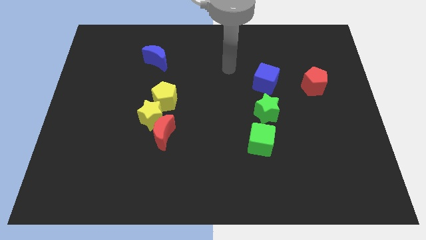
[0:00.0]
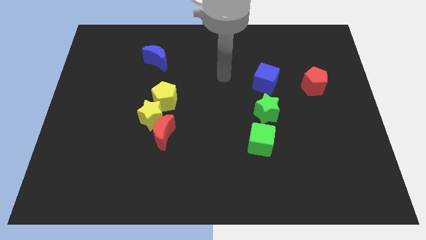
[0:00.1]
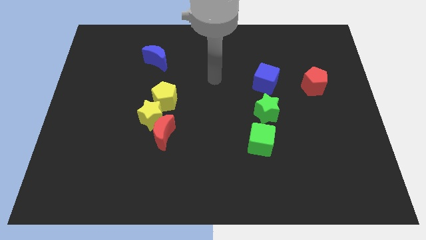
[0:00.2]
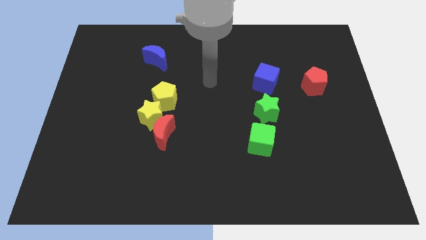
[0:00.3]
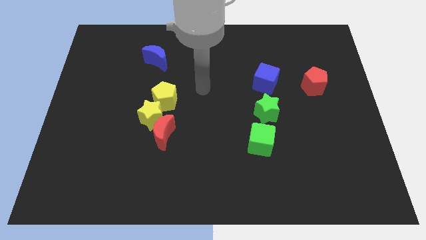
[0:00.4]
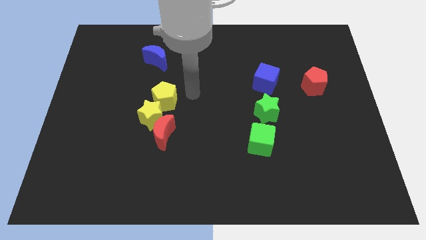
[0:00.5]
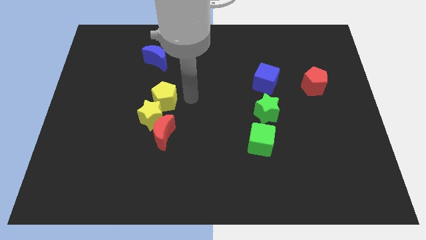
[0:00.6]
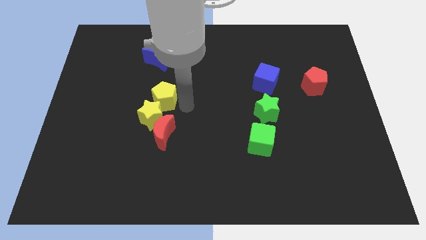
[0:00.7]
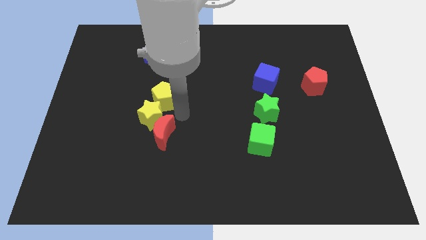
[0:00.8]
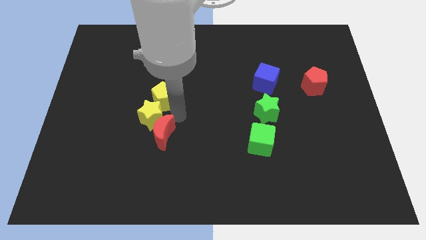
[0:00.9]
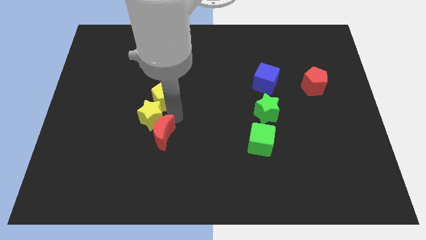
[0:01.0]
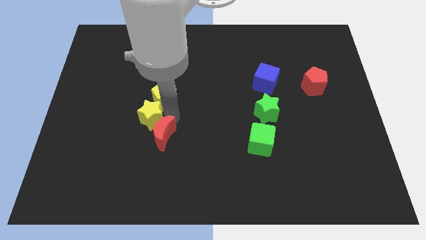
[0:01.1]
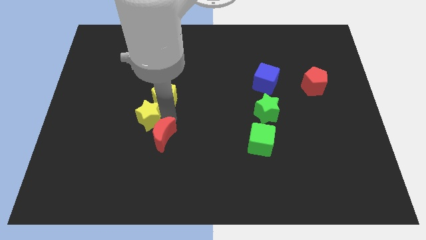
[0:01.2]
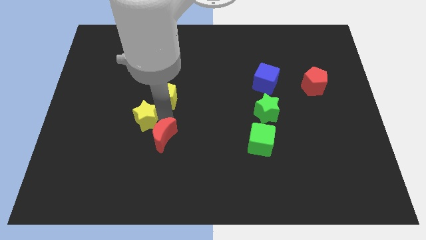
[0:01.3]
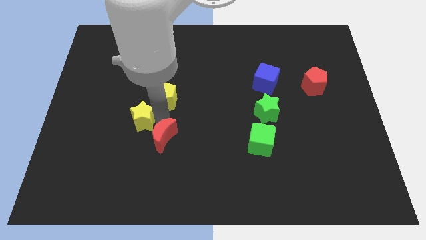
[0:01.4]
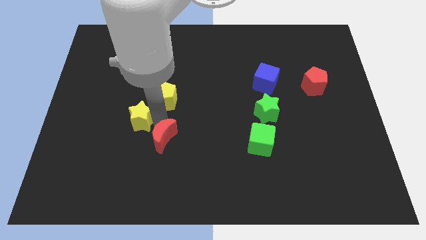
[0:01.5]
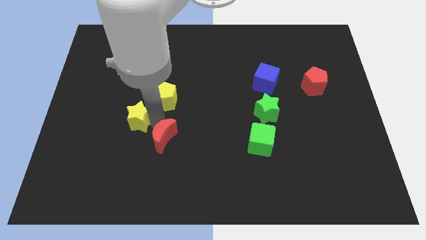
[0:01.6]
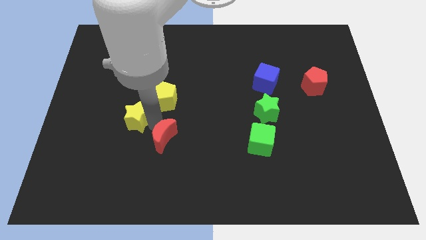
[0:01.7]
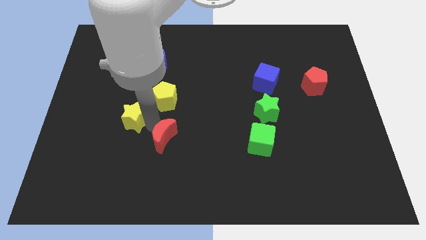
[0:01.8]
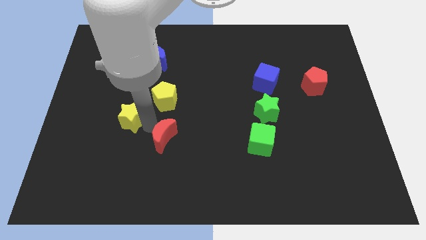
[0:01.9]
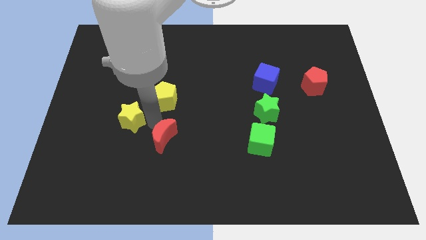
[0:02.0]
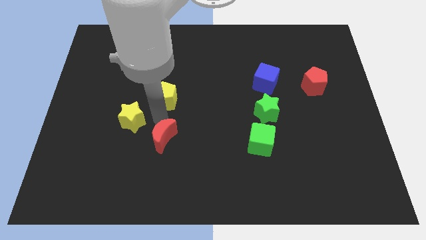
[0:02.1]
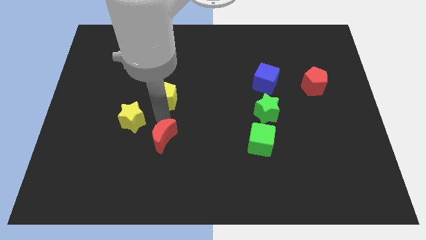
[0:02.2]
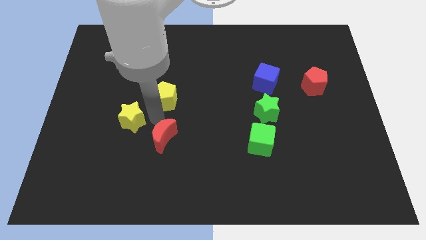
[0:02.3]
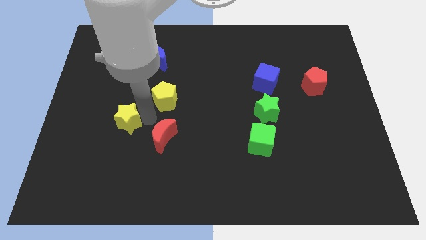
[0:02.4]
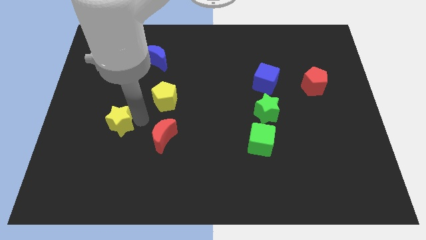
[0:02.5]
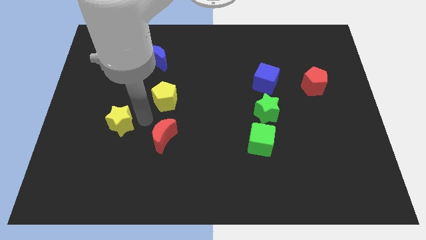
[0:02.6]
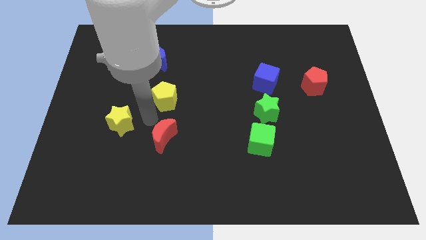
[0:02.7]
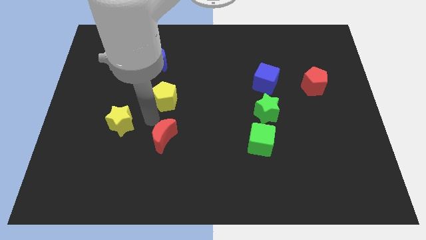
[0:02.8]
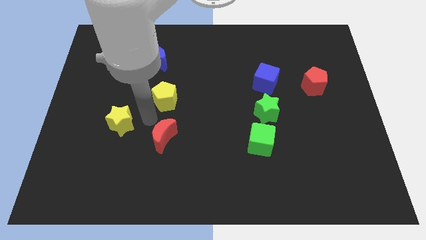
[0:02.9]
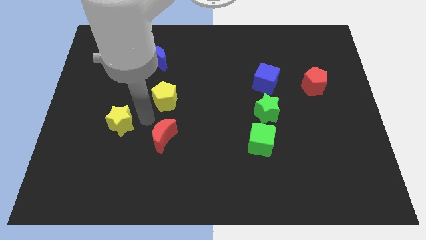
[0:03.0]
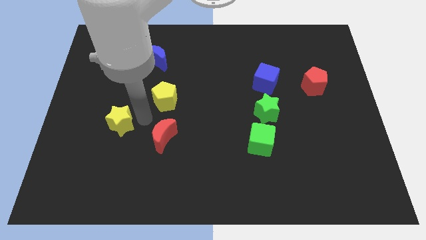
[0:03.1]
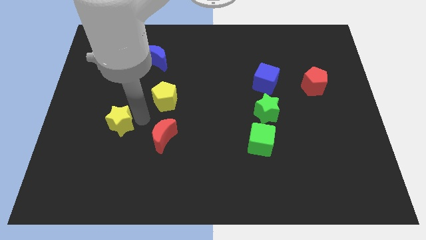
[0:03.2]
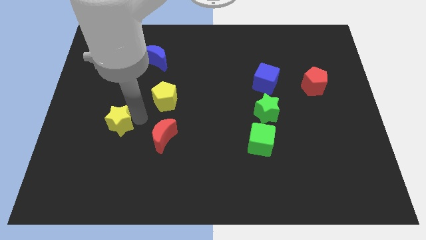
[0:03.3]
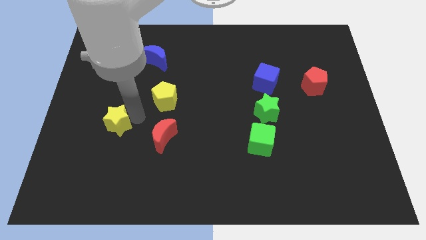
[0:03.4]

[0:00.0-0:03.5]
move the yellow star away from the red moon and yellow pentagon

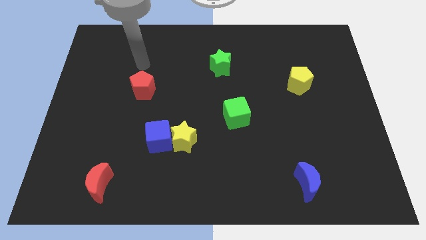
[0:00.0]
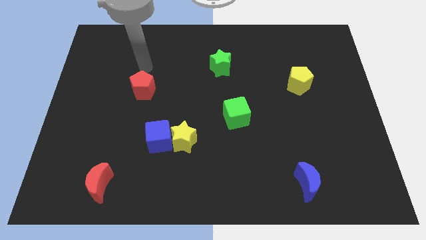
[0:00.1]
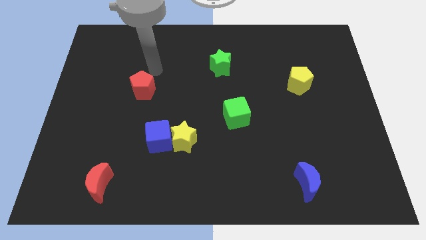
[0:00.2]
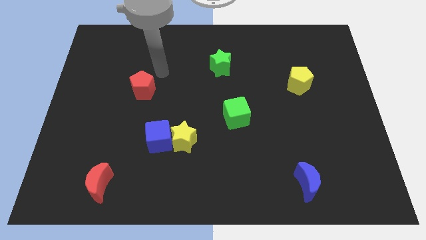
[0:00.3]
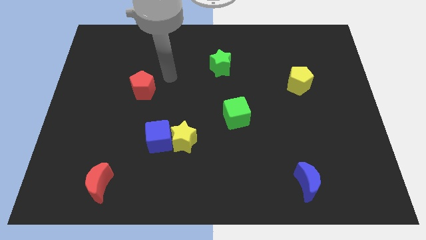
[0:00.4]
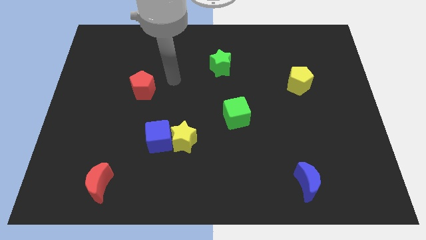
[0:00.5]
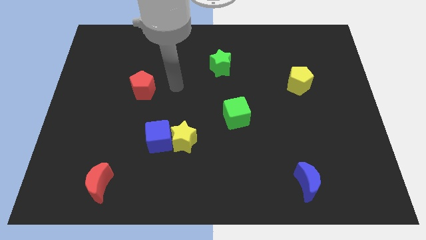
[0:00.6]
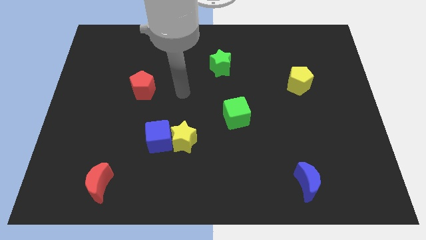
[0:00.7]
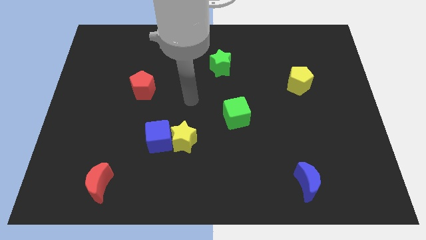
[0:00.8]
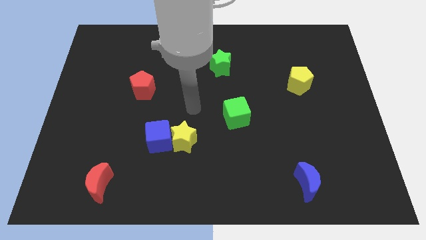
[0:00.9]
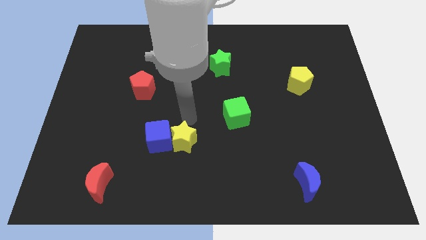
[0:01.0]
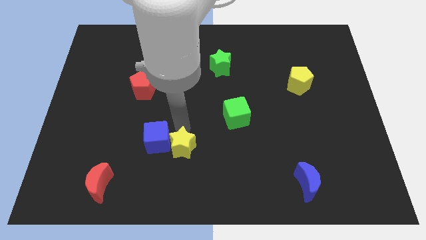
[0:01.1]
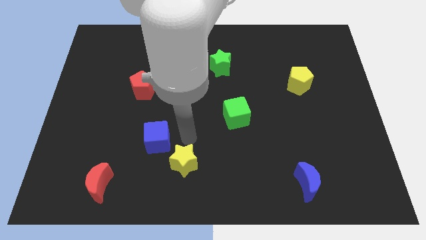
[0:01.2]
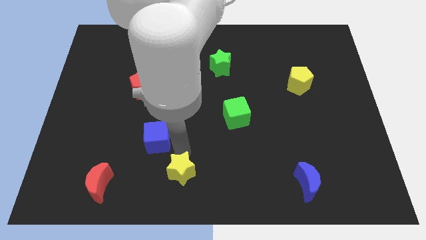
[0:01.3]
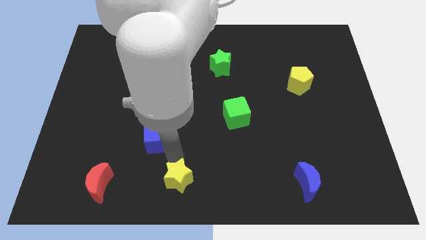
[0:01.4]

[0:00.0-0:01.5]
move the blue cube away from the yellow star

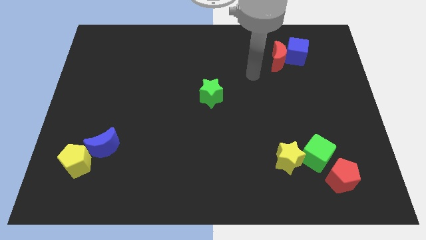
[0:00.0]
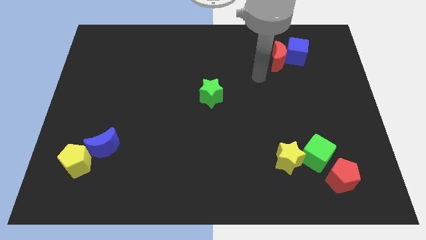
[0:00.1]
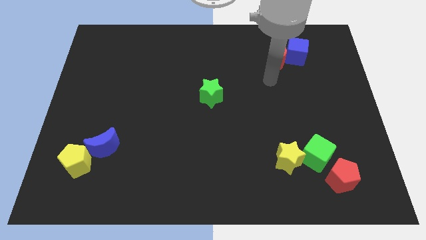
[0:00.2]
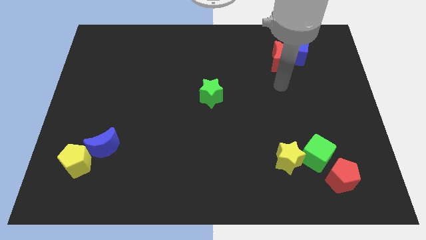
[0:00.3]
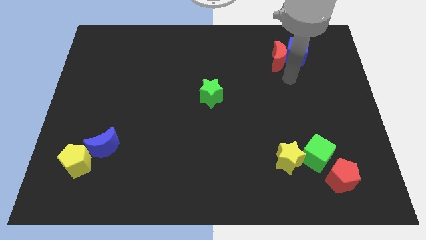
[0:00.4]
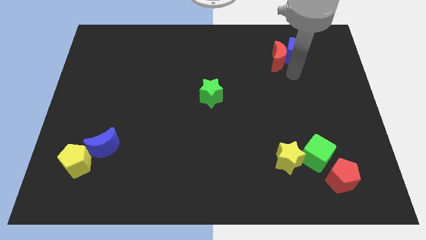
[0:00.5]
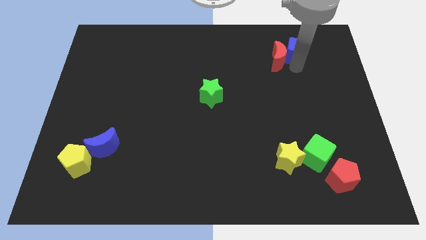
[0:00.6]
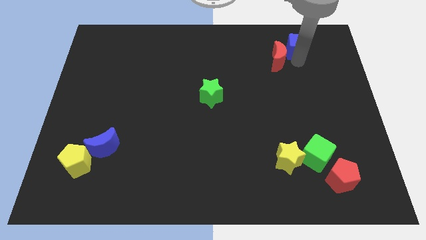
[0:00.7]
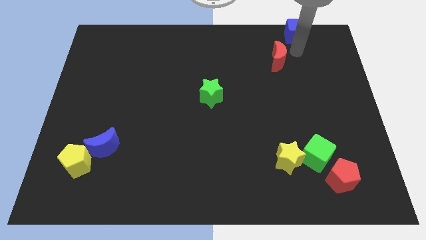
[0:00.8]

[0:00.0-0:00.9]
separate the red moon from the blue cube

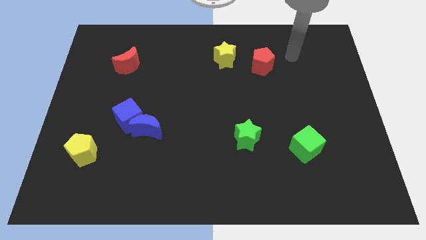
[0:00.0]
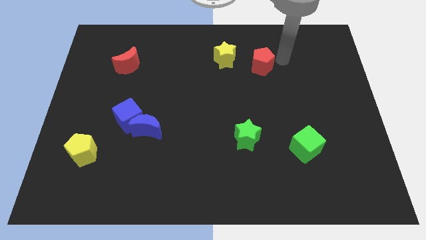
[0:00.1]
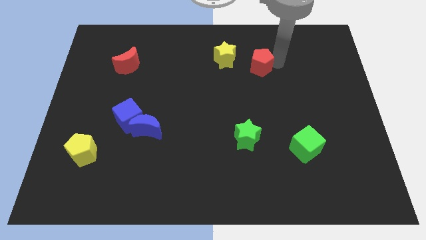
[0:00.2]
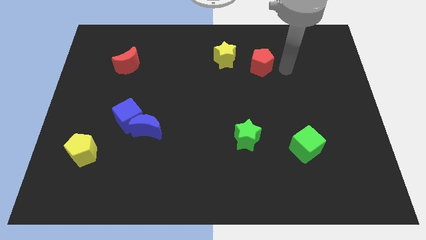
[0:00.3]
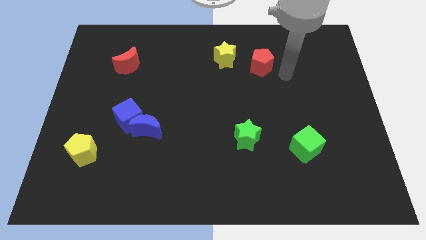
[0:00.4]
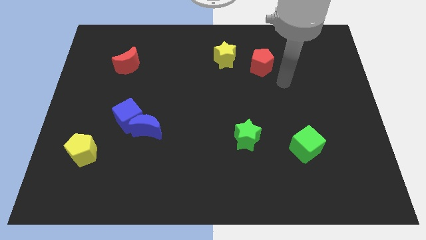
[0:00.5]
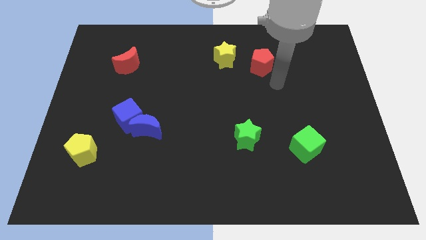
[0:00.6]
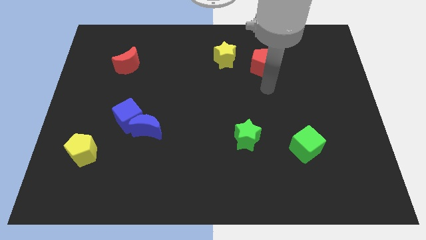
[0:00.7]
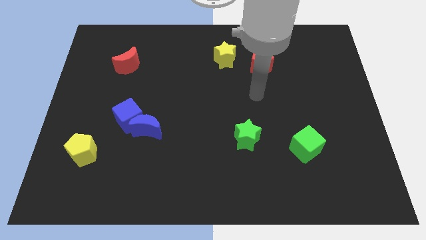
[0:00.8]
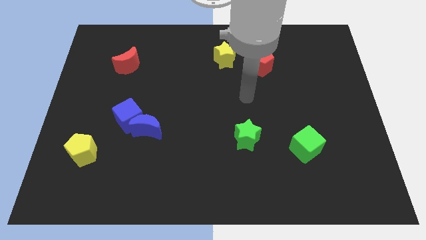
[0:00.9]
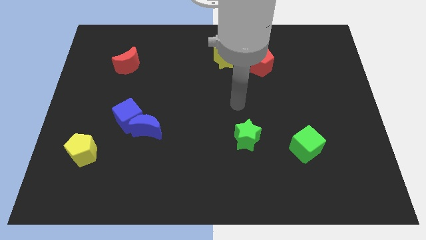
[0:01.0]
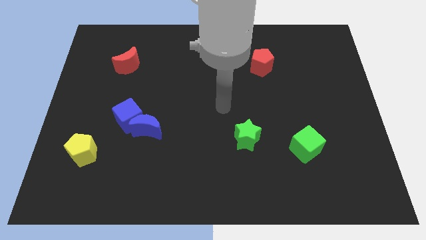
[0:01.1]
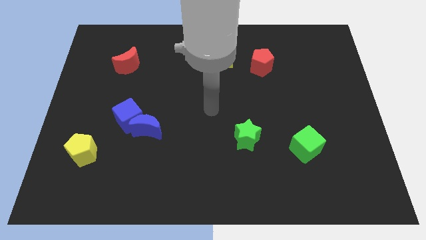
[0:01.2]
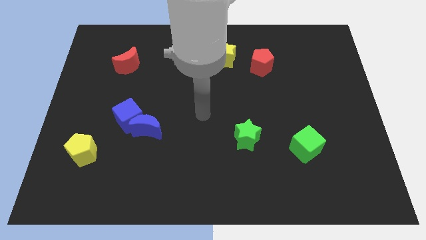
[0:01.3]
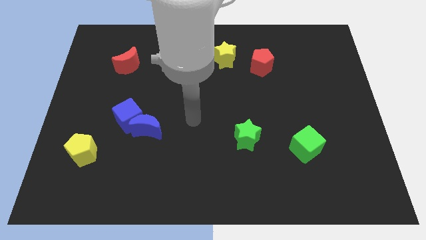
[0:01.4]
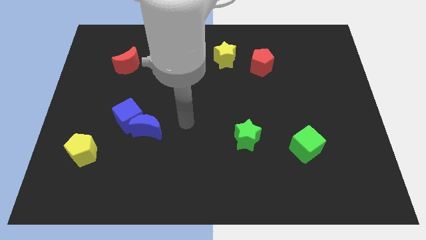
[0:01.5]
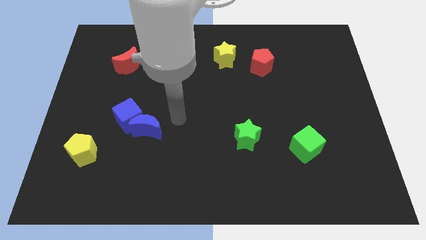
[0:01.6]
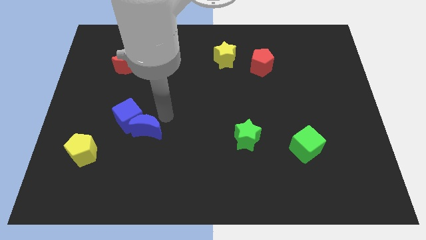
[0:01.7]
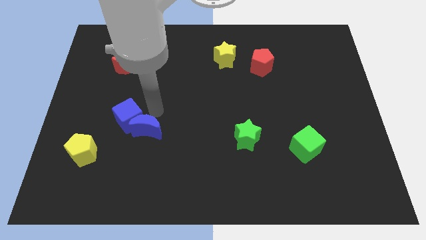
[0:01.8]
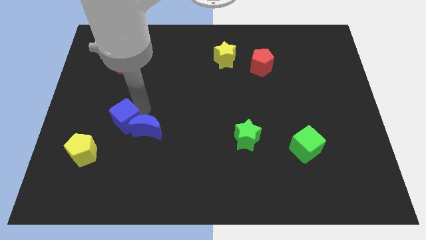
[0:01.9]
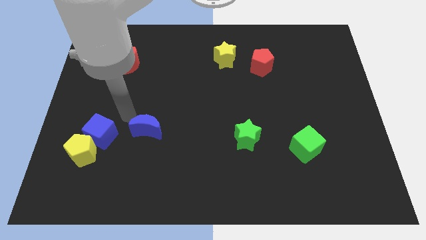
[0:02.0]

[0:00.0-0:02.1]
move the blue moon away from the blue cube

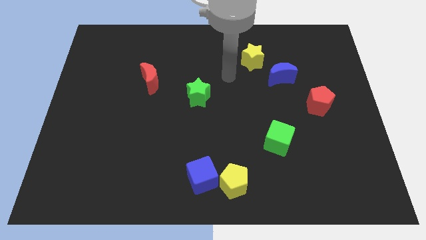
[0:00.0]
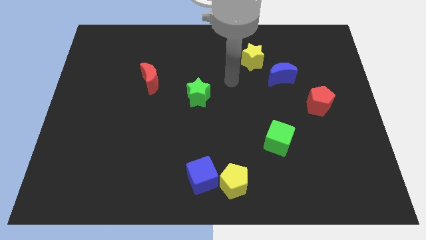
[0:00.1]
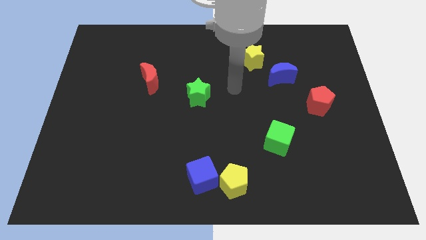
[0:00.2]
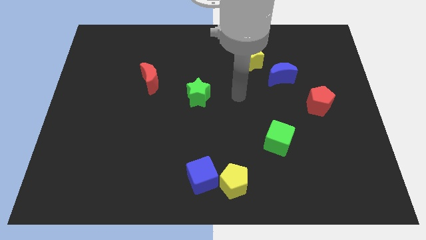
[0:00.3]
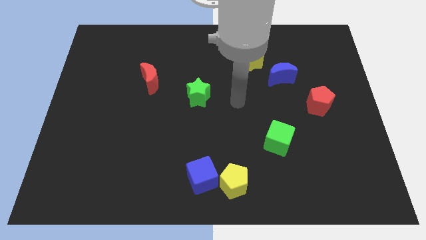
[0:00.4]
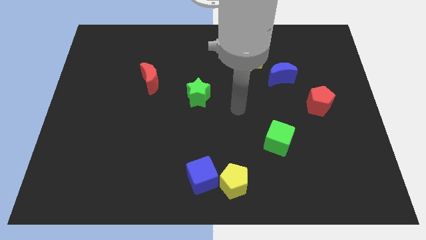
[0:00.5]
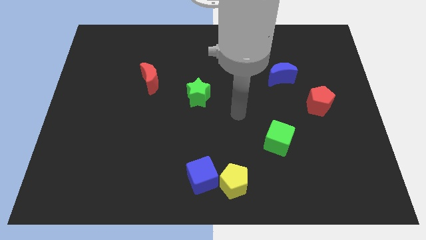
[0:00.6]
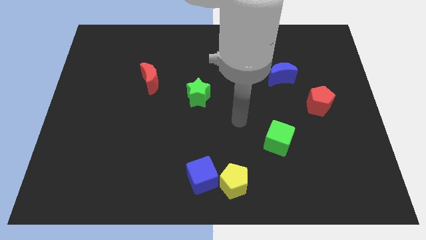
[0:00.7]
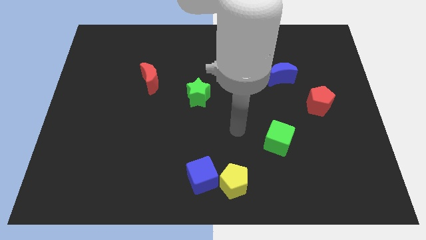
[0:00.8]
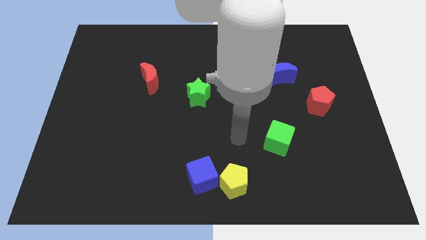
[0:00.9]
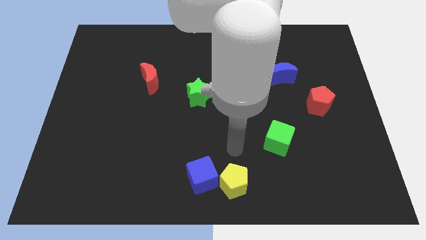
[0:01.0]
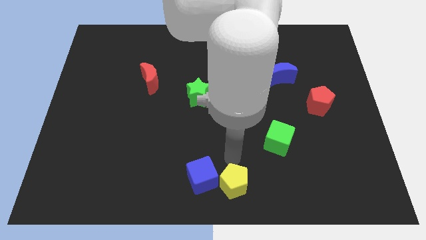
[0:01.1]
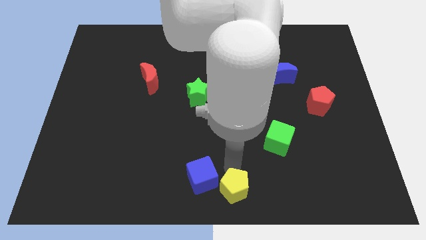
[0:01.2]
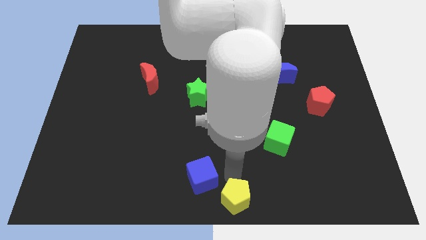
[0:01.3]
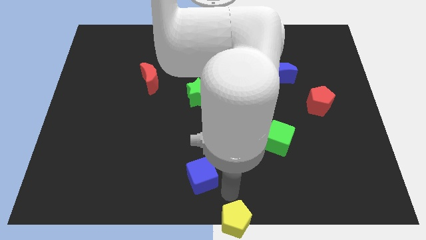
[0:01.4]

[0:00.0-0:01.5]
separate the blue cube from the yellow pentagon
